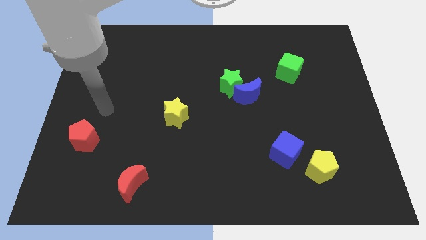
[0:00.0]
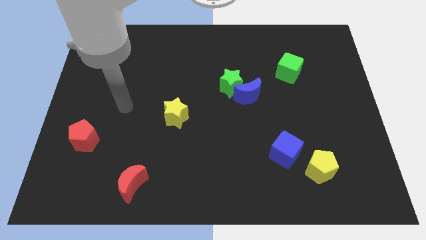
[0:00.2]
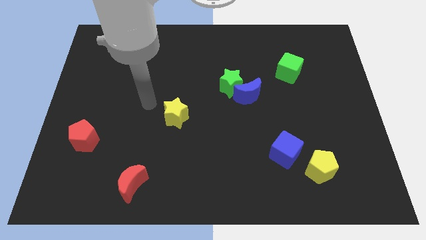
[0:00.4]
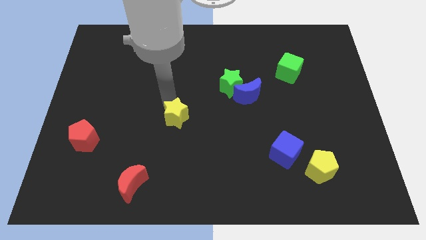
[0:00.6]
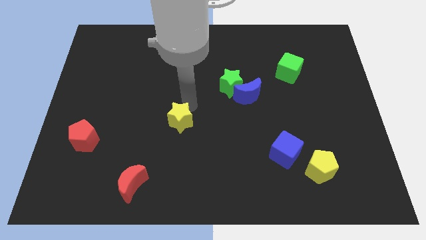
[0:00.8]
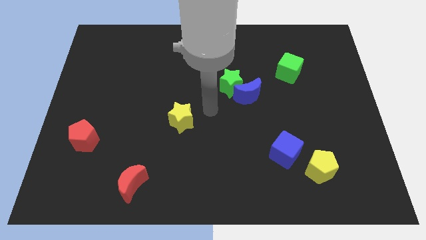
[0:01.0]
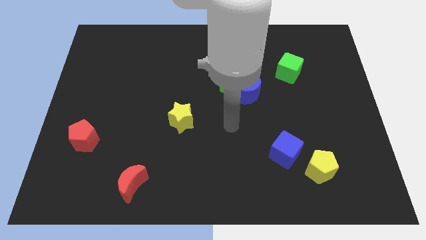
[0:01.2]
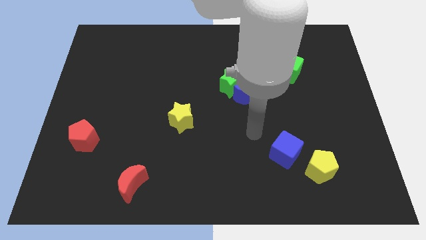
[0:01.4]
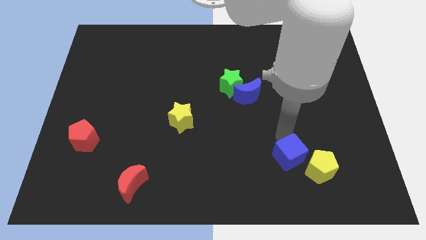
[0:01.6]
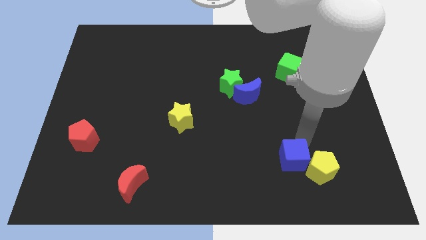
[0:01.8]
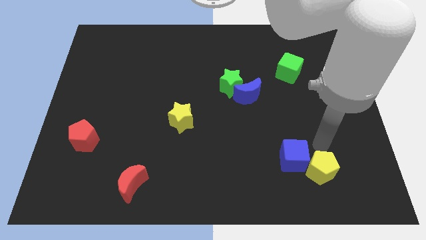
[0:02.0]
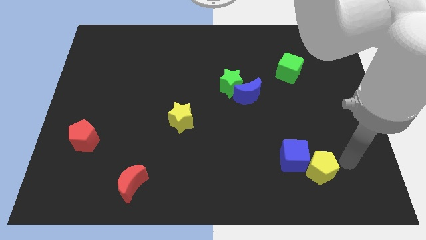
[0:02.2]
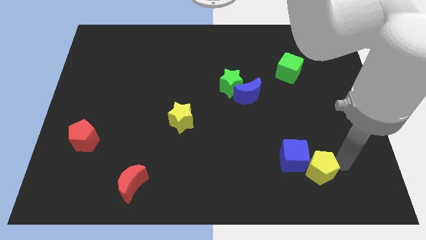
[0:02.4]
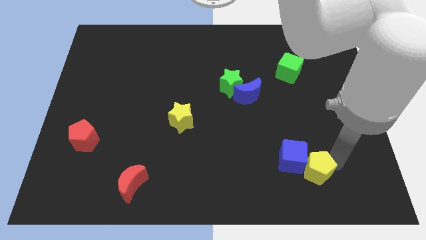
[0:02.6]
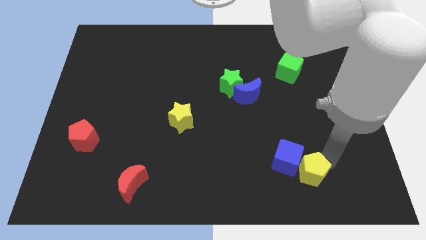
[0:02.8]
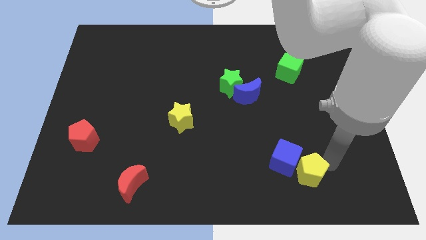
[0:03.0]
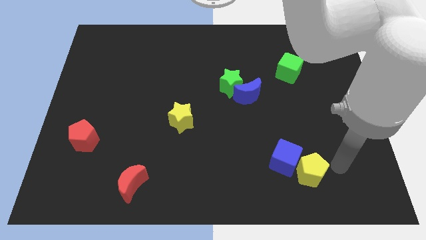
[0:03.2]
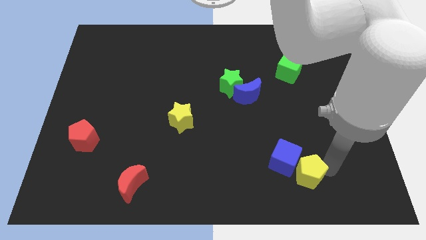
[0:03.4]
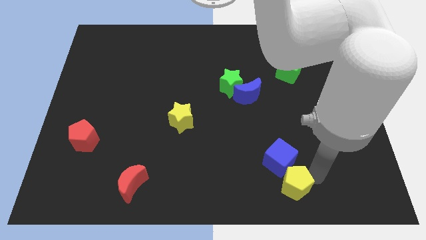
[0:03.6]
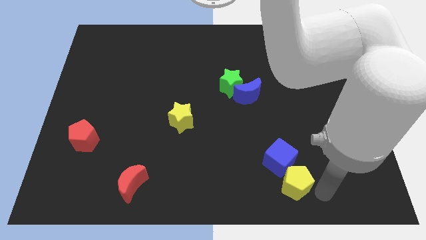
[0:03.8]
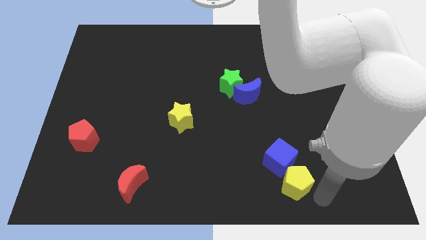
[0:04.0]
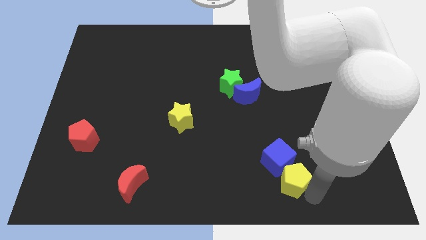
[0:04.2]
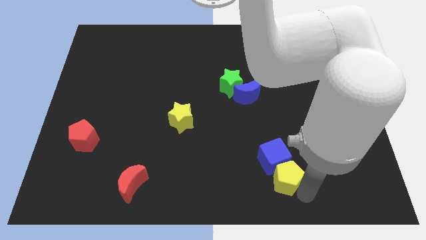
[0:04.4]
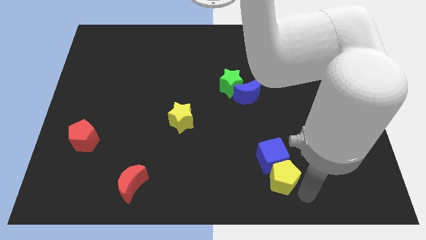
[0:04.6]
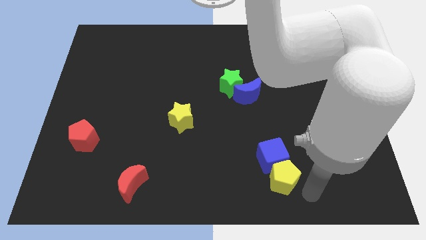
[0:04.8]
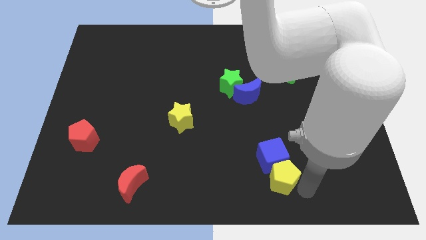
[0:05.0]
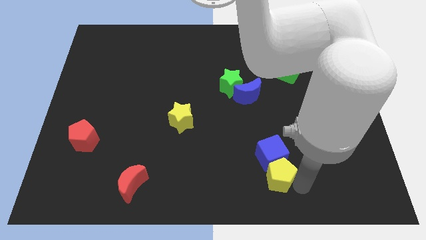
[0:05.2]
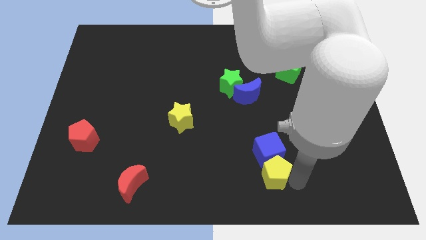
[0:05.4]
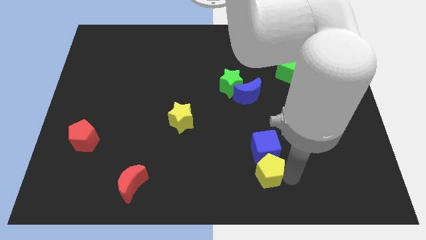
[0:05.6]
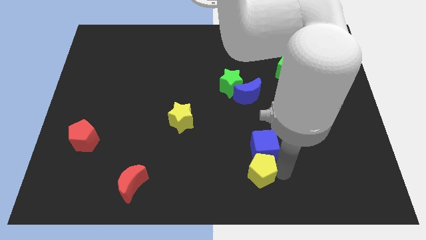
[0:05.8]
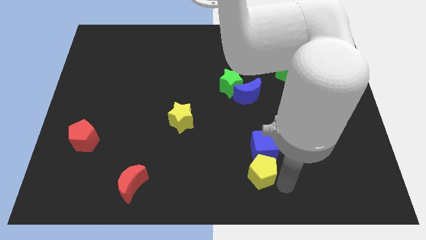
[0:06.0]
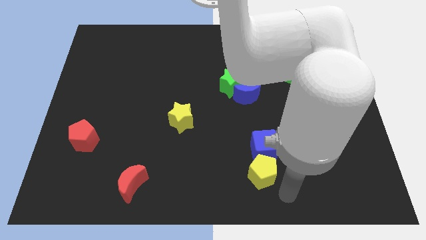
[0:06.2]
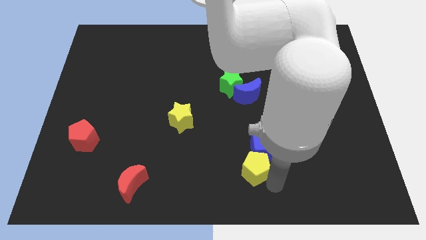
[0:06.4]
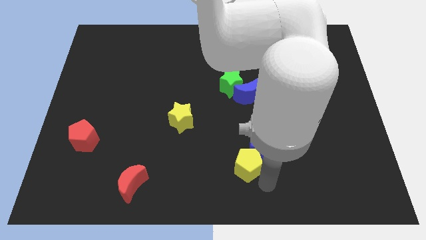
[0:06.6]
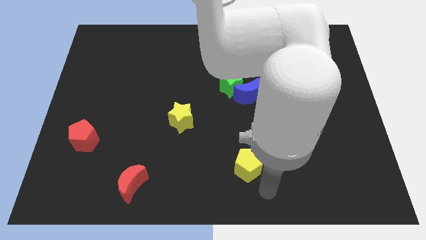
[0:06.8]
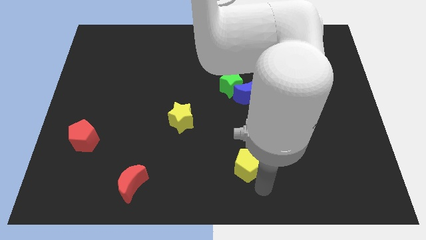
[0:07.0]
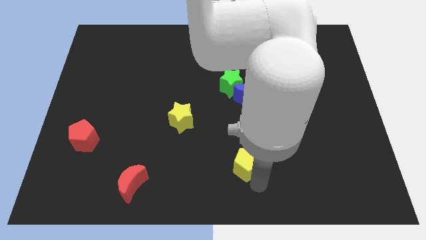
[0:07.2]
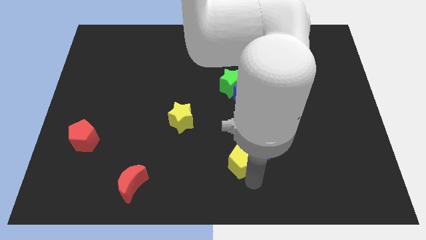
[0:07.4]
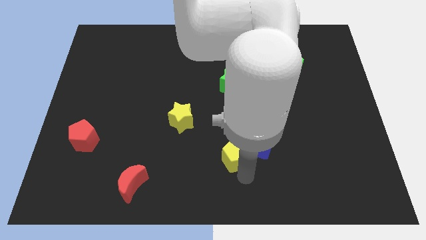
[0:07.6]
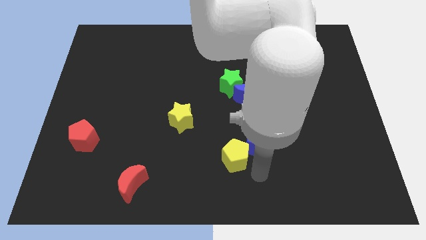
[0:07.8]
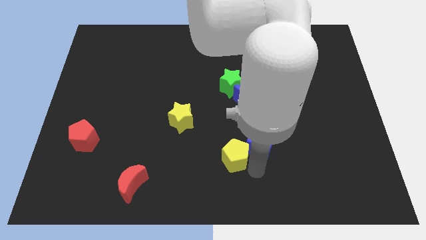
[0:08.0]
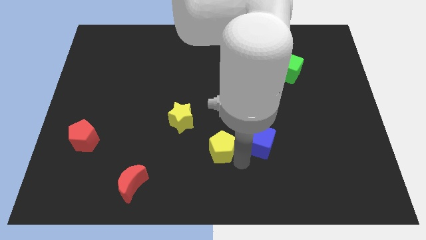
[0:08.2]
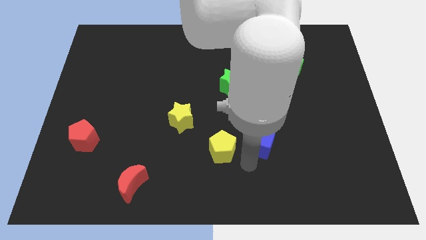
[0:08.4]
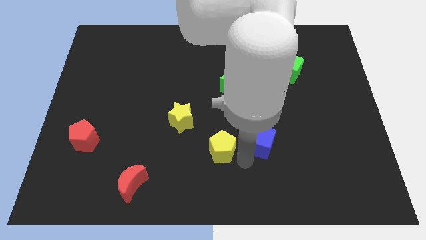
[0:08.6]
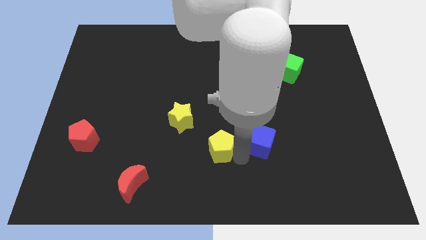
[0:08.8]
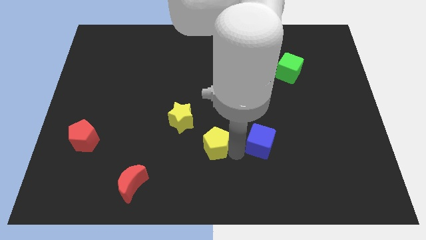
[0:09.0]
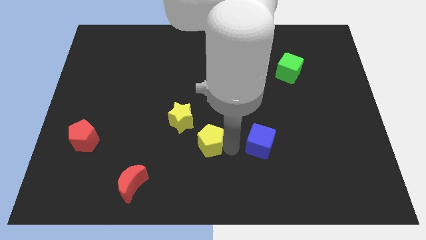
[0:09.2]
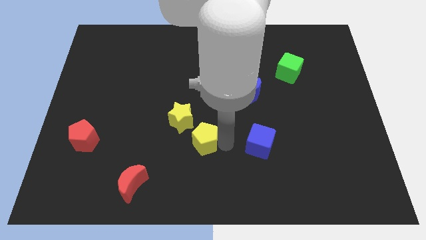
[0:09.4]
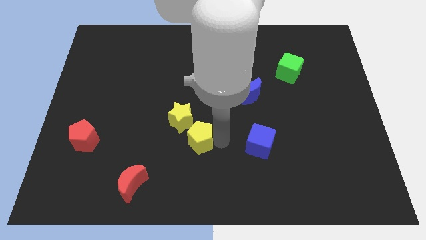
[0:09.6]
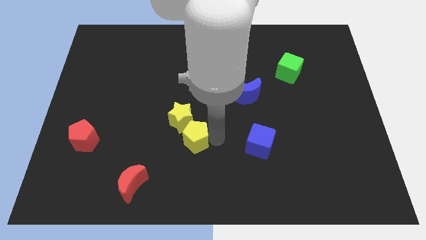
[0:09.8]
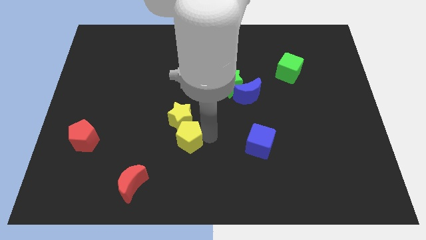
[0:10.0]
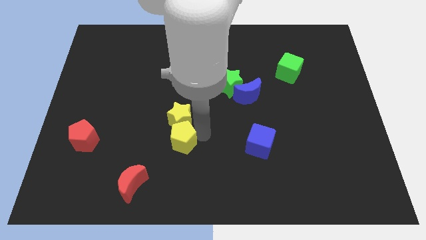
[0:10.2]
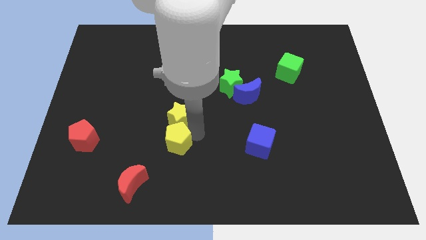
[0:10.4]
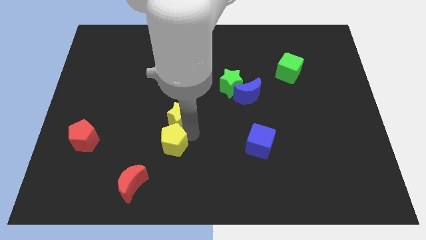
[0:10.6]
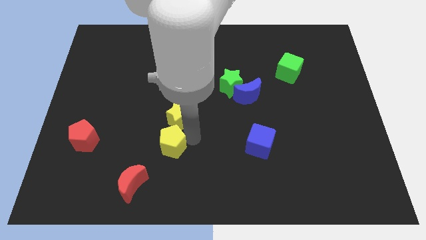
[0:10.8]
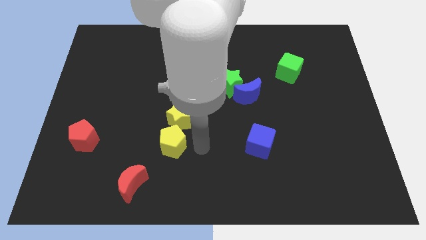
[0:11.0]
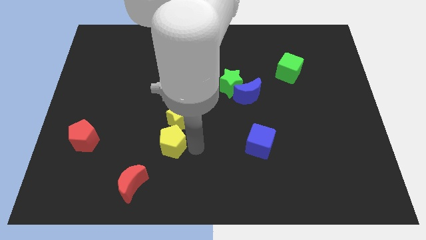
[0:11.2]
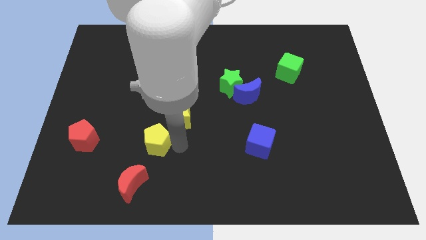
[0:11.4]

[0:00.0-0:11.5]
put the yellow pentagon to the top side of the red moon

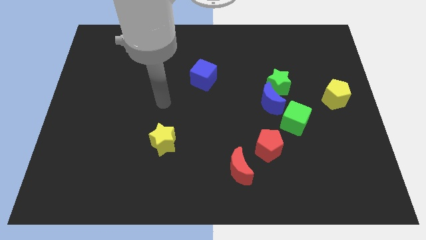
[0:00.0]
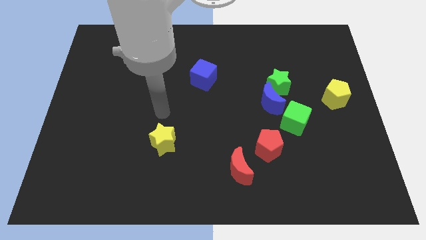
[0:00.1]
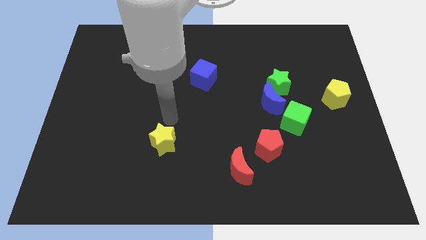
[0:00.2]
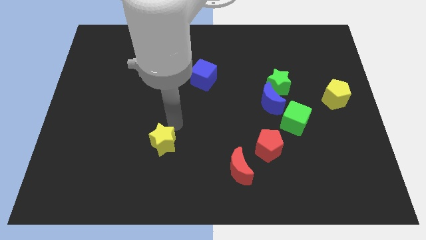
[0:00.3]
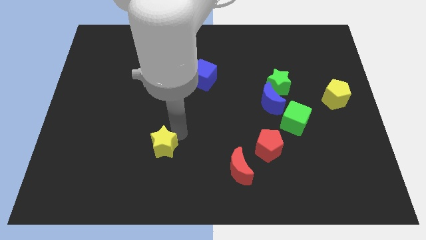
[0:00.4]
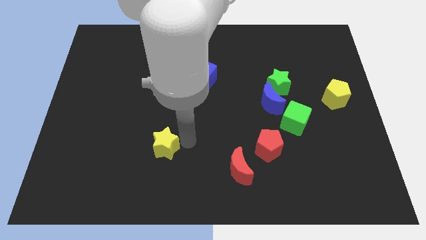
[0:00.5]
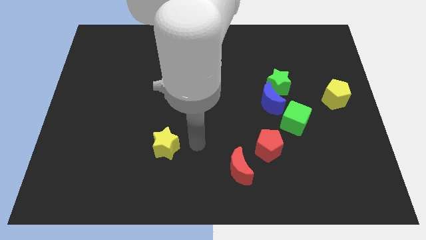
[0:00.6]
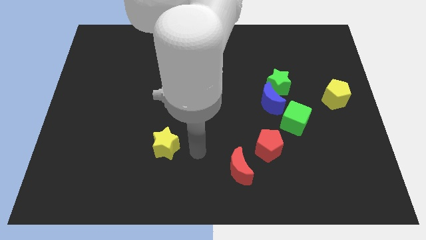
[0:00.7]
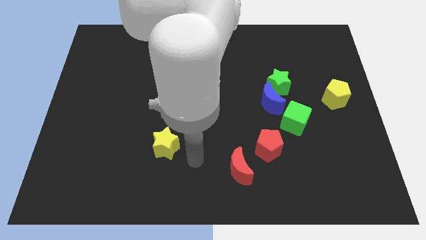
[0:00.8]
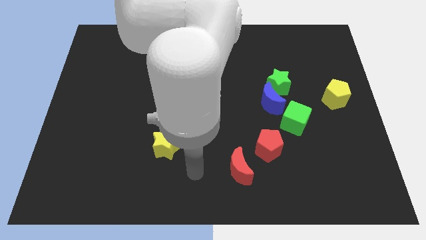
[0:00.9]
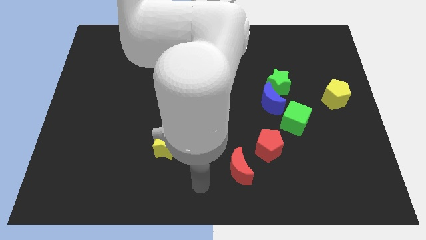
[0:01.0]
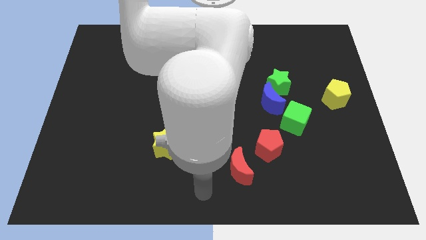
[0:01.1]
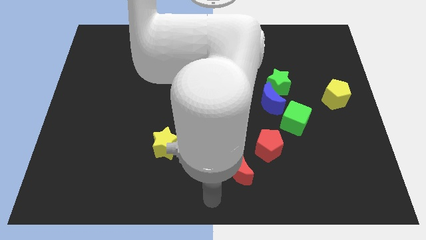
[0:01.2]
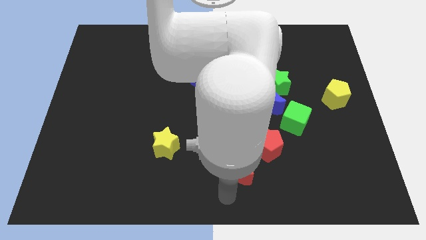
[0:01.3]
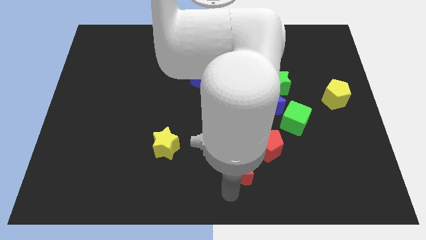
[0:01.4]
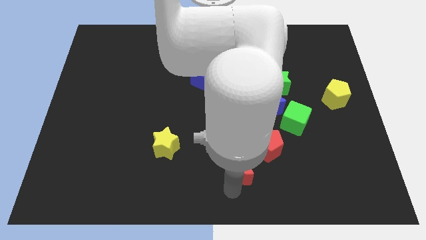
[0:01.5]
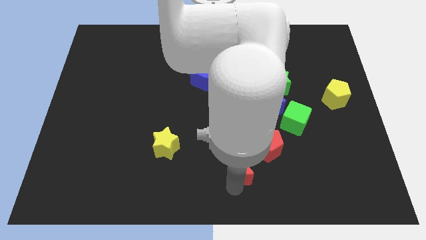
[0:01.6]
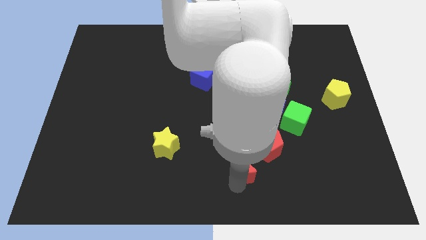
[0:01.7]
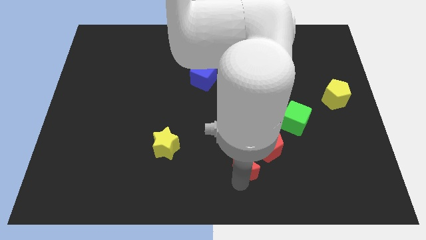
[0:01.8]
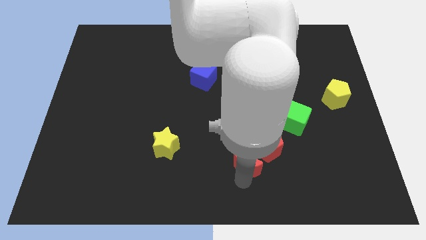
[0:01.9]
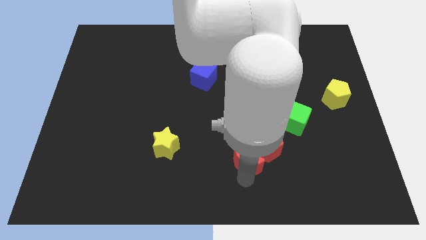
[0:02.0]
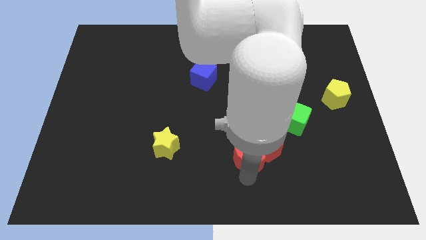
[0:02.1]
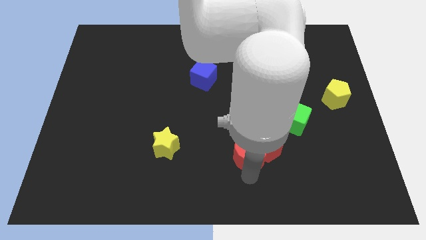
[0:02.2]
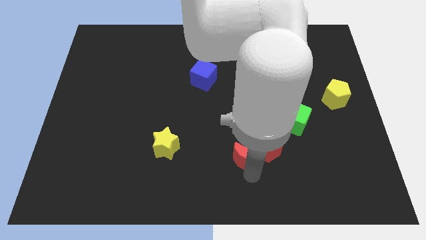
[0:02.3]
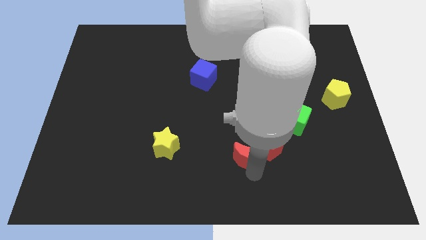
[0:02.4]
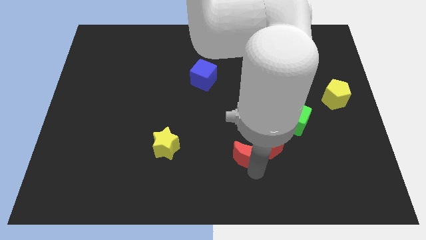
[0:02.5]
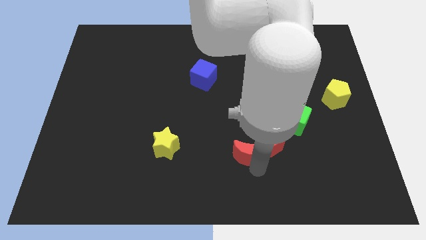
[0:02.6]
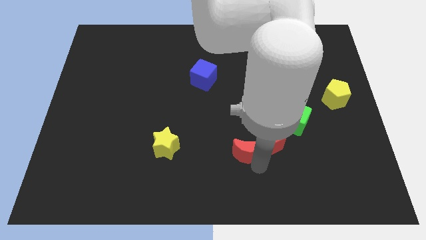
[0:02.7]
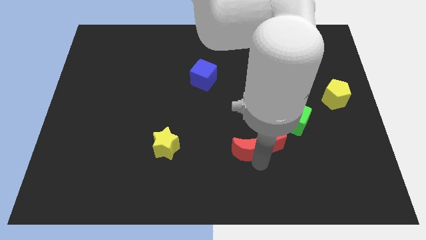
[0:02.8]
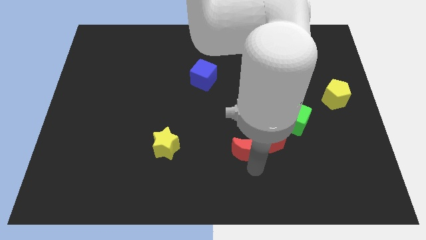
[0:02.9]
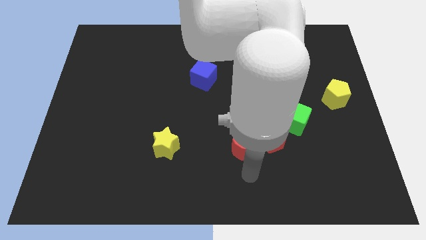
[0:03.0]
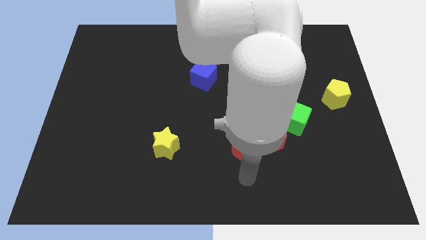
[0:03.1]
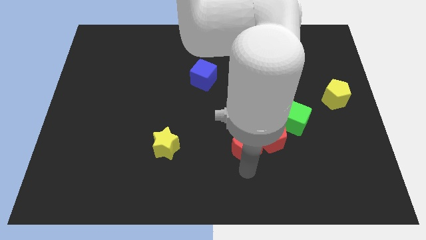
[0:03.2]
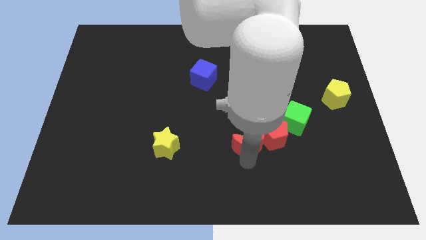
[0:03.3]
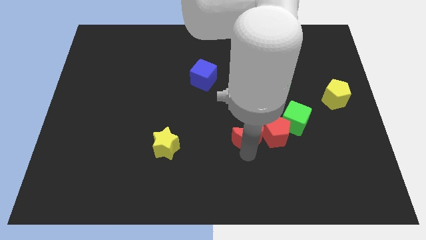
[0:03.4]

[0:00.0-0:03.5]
slide the red moon to the bottom left side of the blue moon
